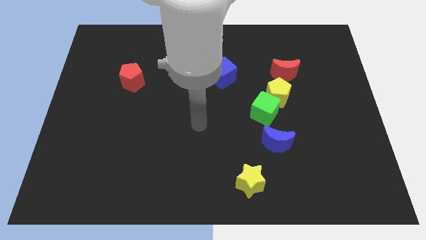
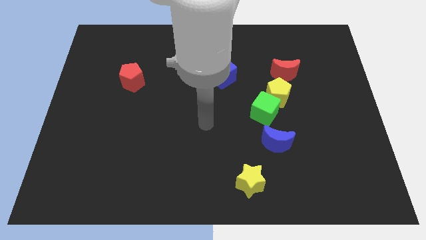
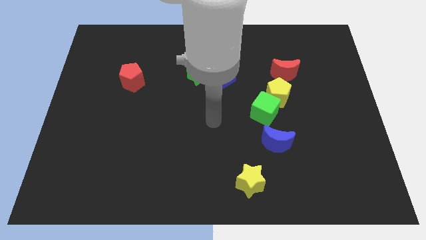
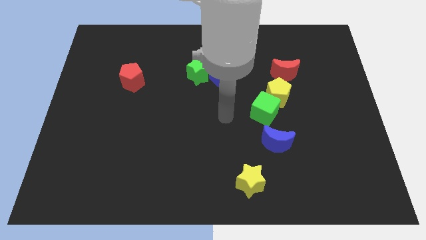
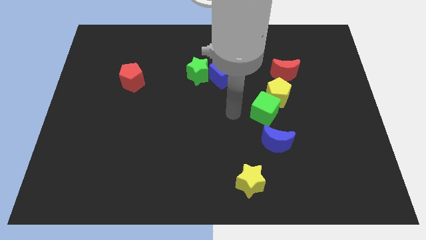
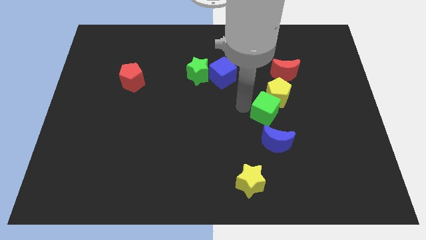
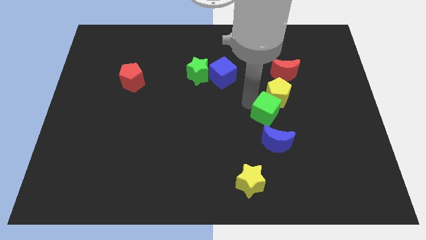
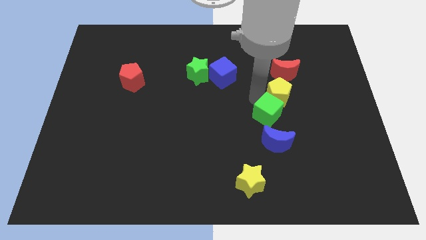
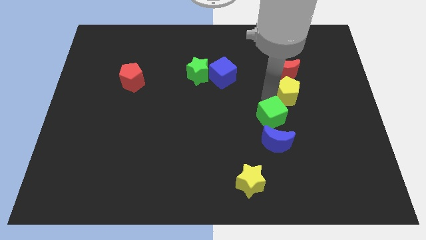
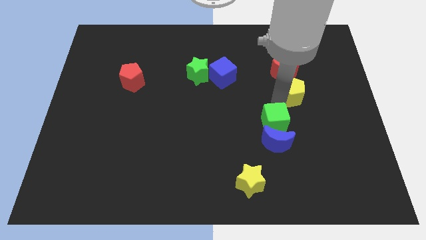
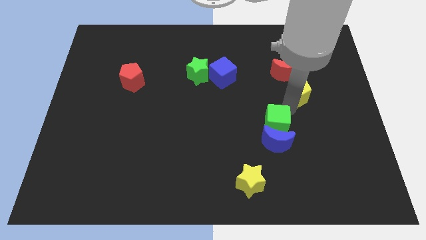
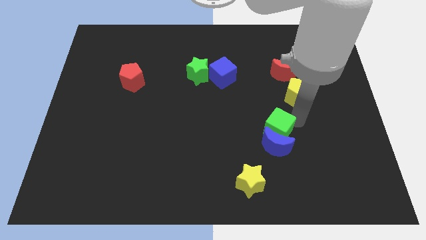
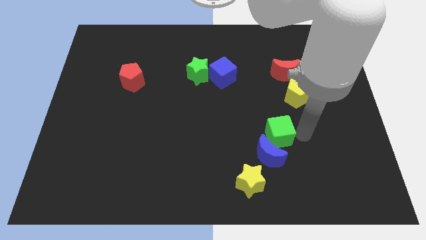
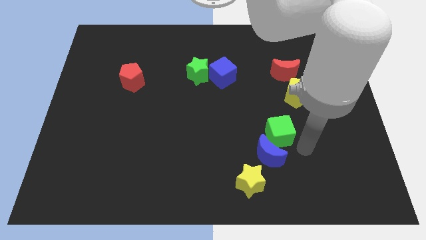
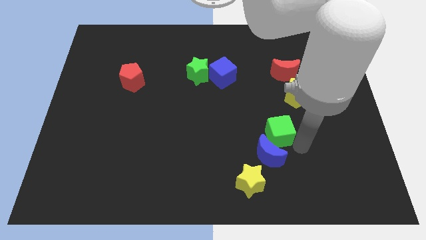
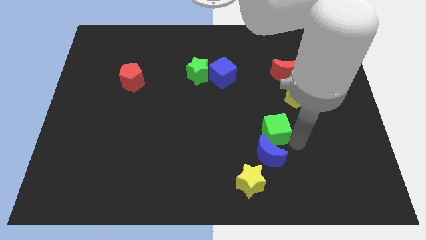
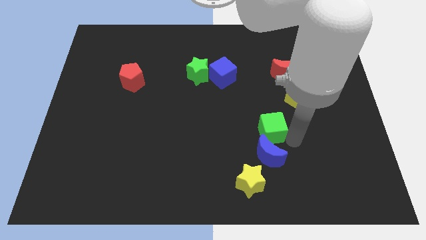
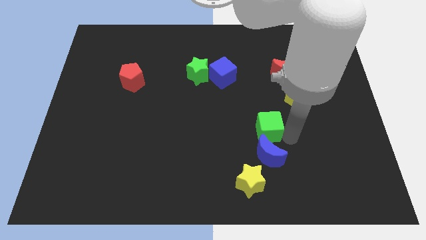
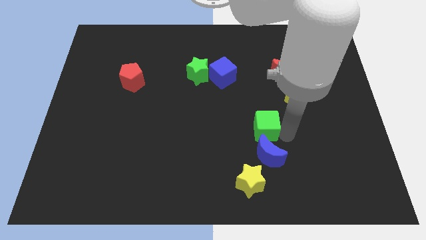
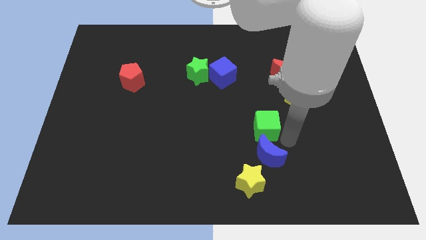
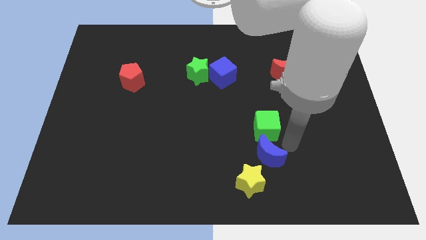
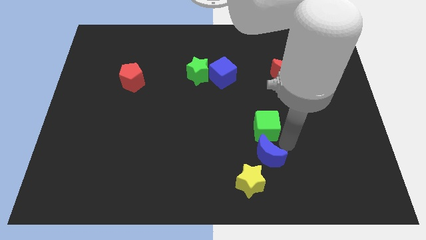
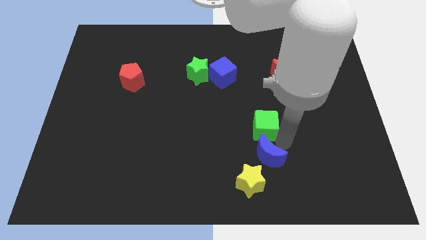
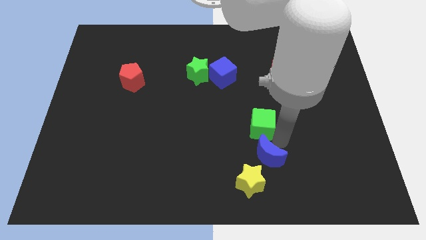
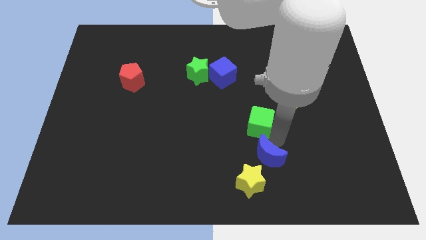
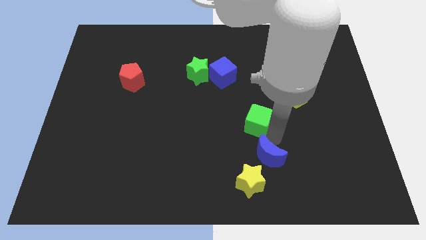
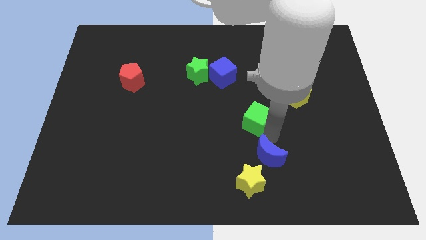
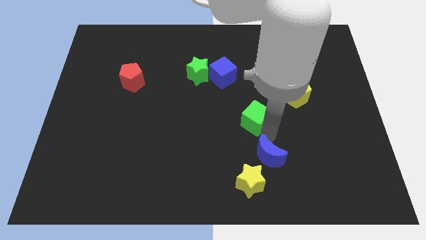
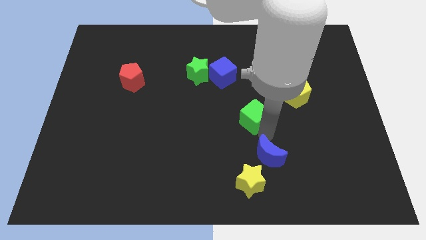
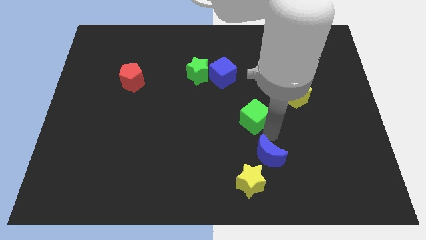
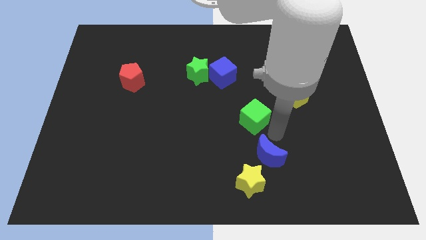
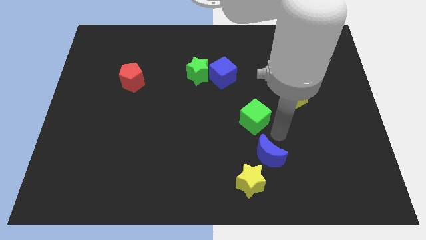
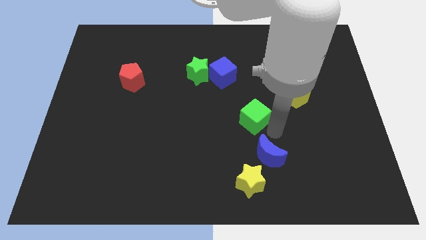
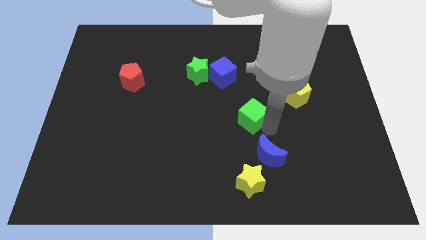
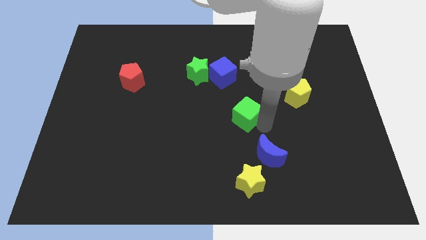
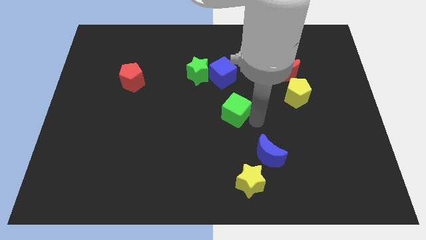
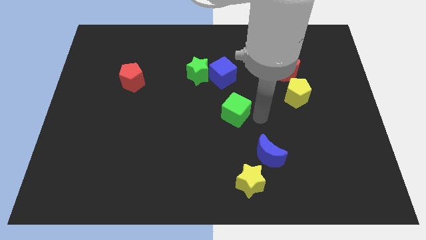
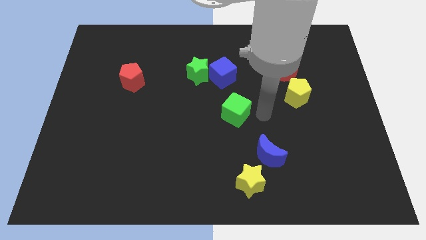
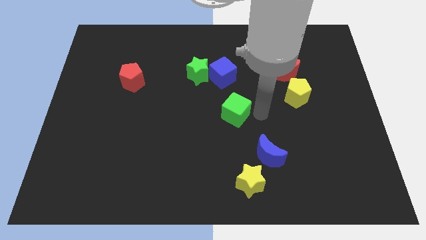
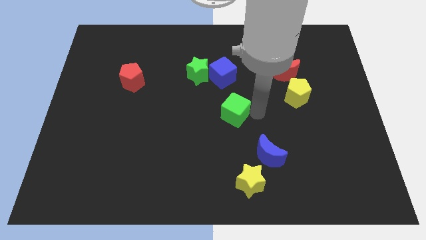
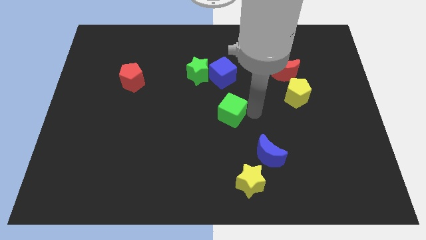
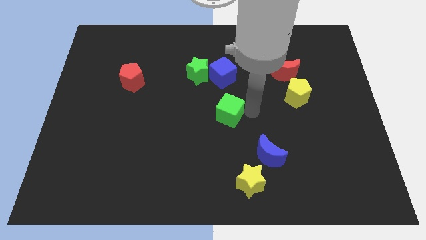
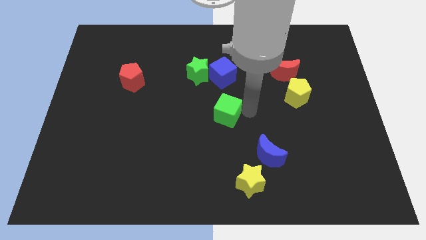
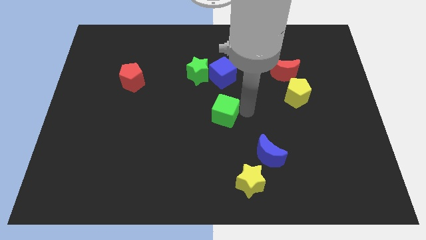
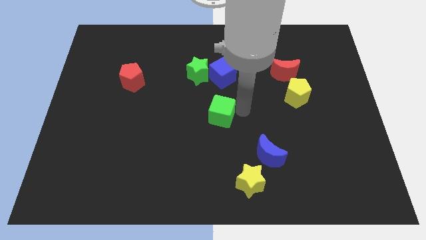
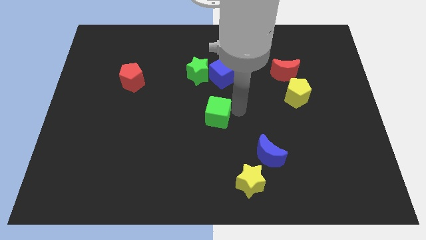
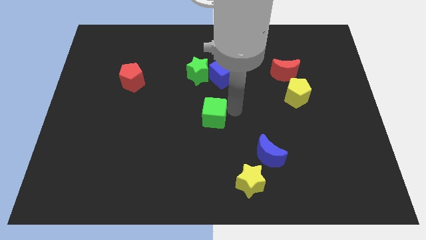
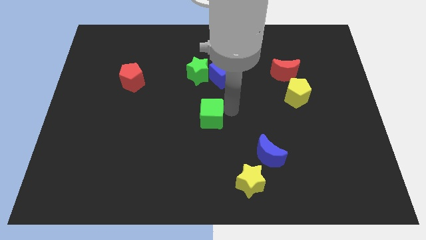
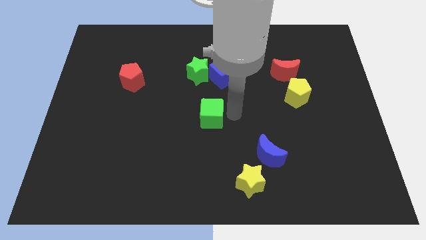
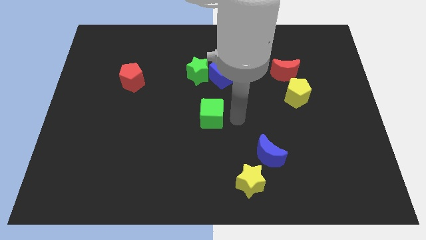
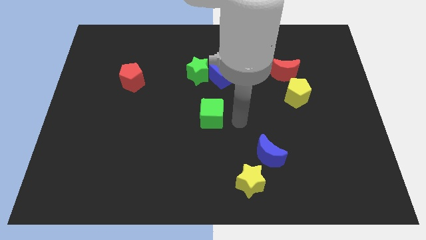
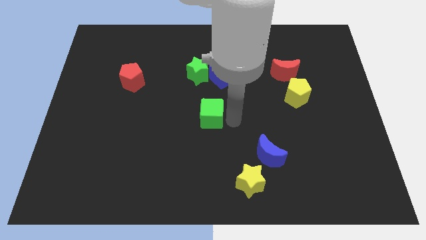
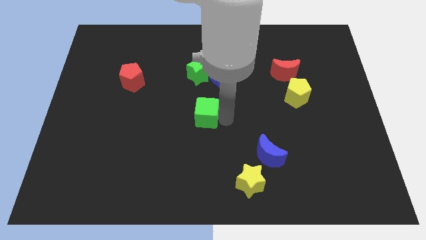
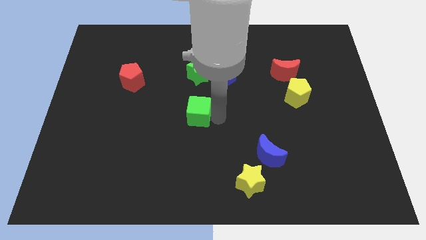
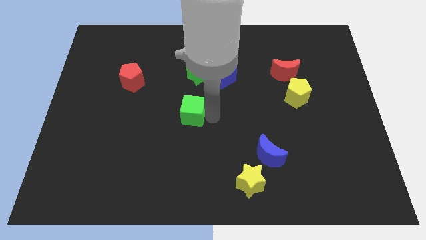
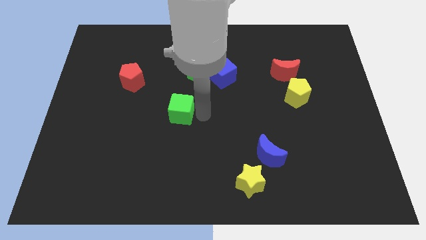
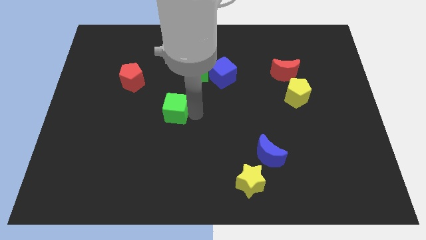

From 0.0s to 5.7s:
move the green cube to the left

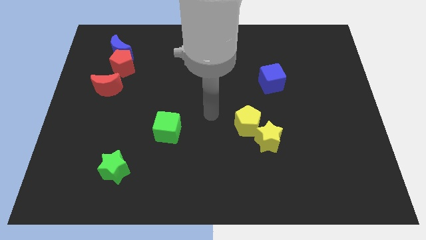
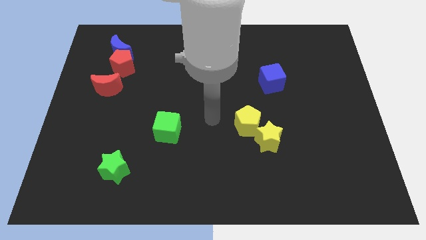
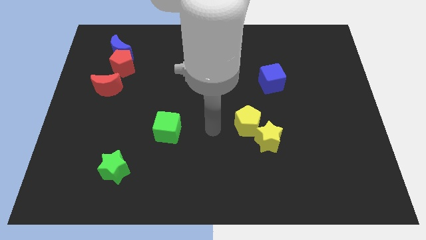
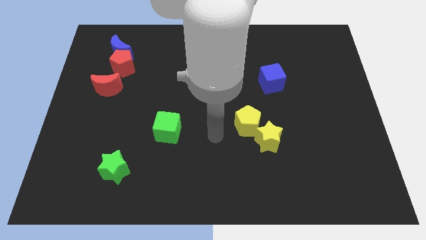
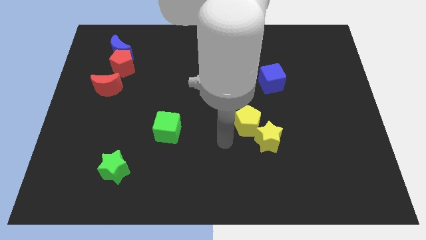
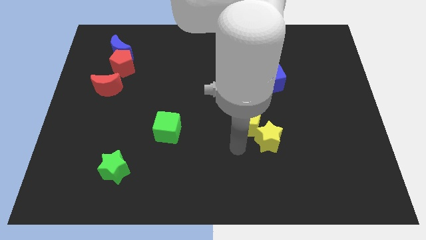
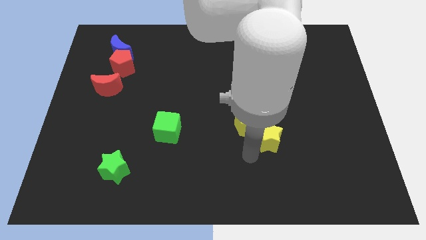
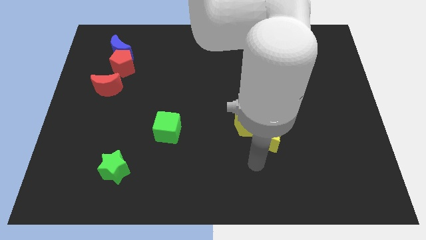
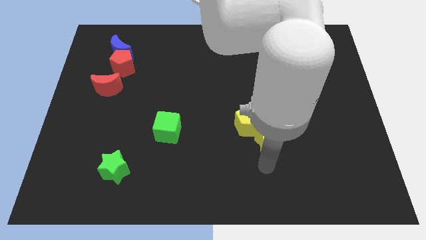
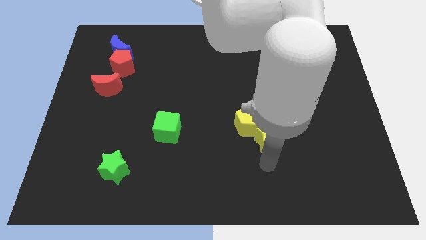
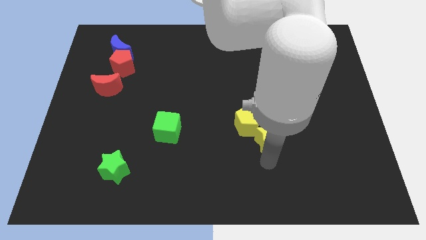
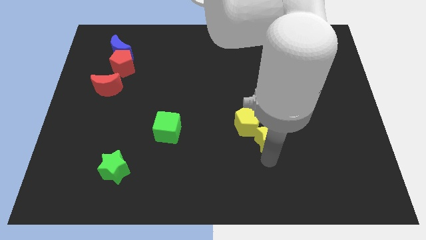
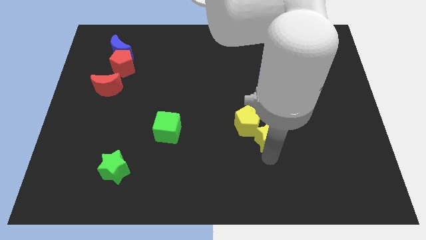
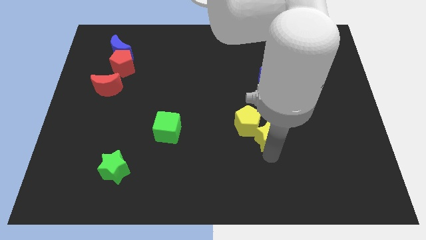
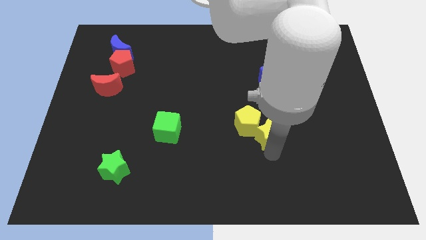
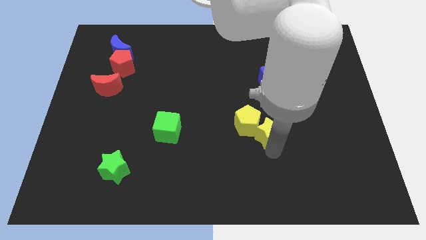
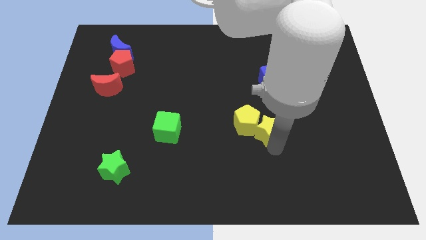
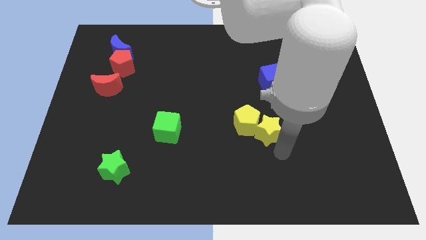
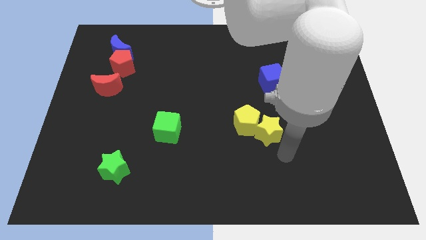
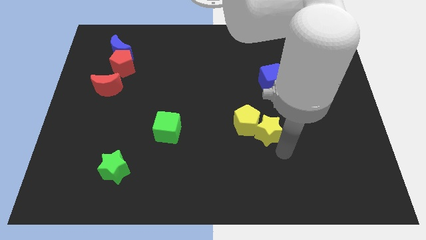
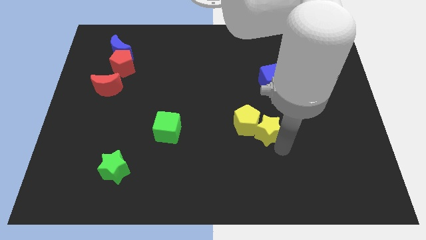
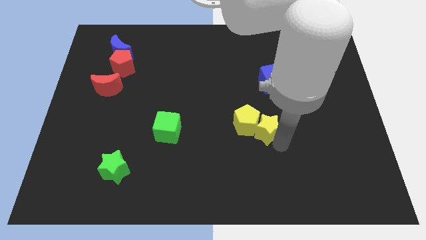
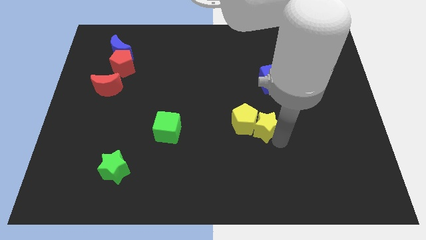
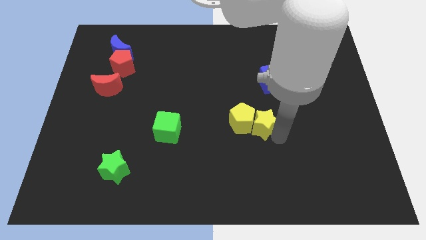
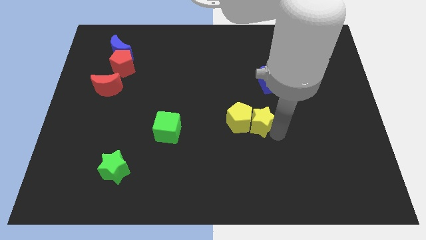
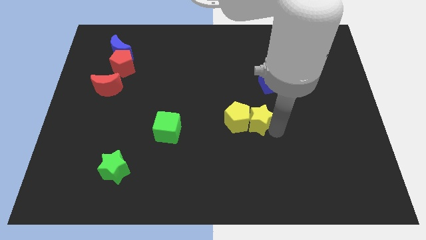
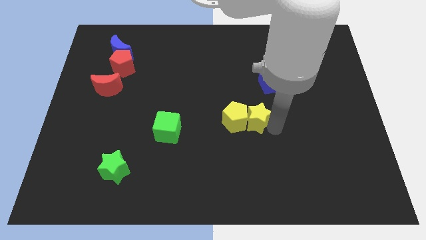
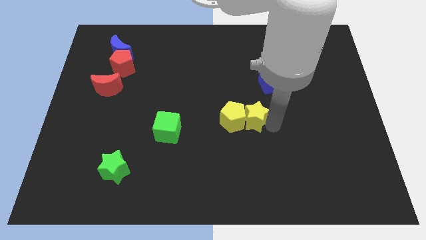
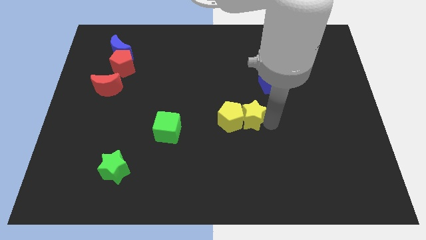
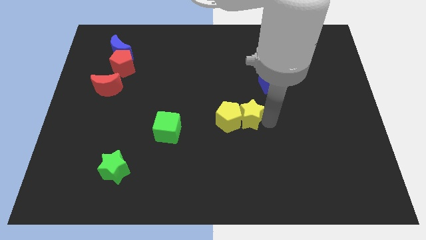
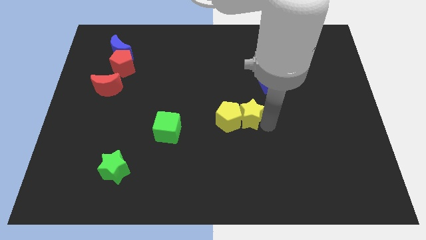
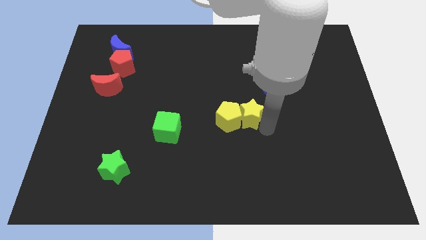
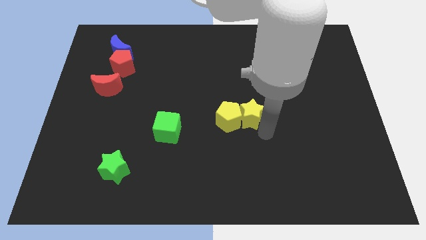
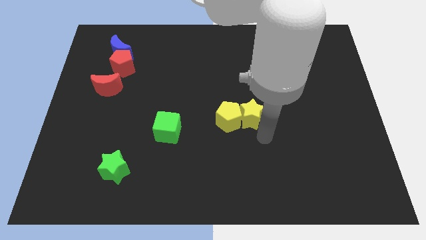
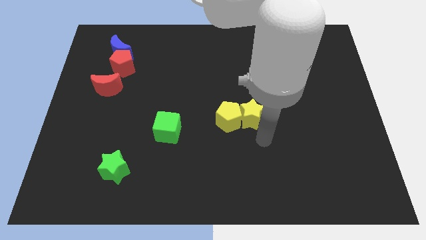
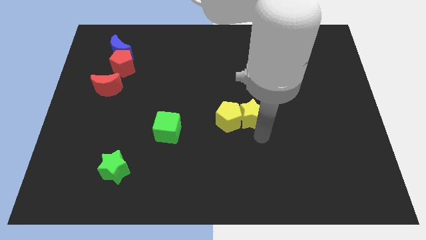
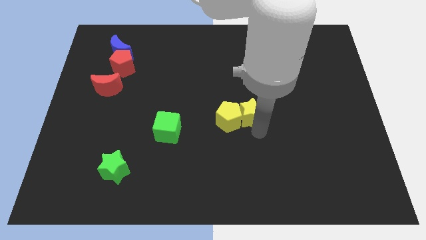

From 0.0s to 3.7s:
push the yellow star somewhat up and left
